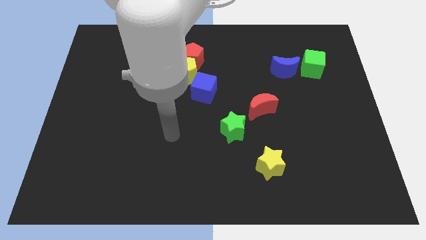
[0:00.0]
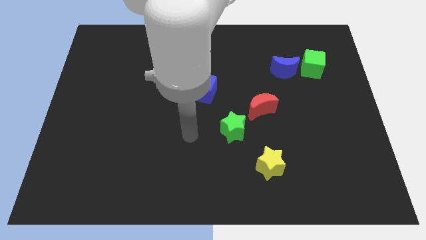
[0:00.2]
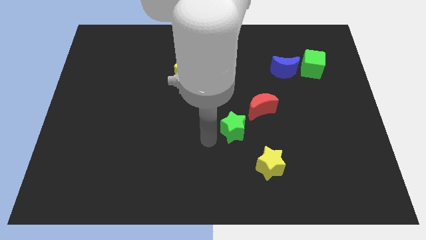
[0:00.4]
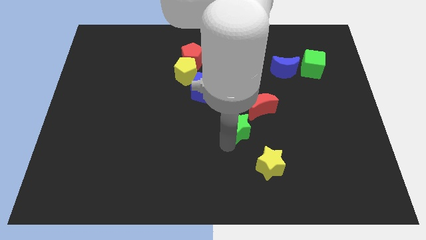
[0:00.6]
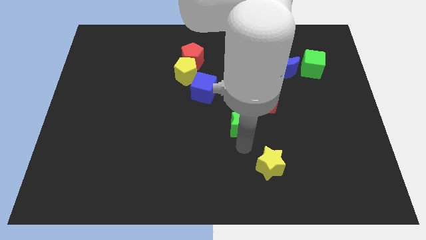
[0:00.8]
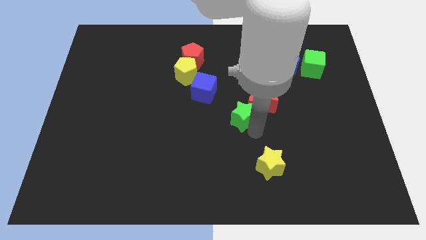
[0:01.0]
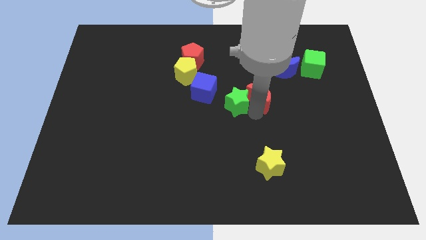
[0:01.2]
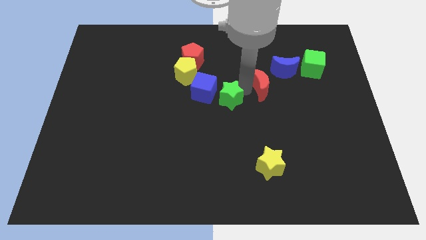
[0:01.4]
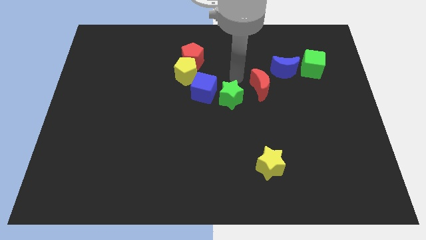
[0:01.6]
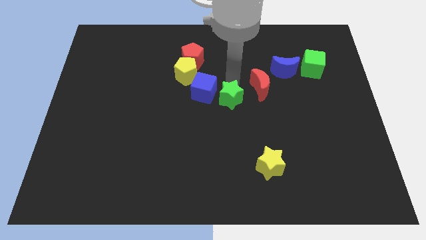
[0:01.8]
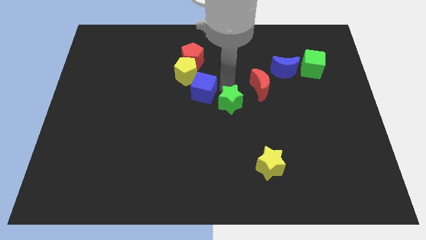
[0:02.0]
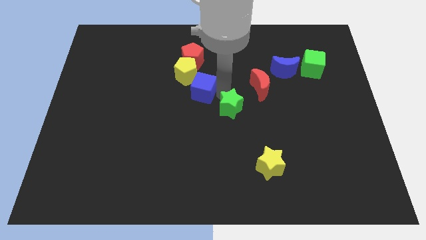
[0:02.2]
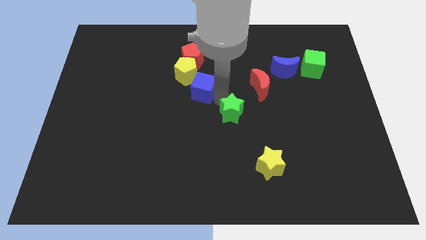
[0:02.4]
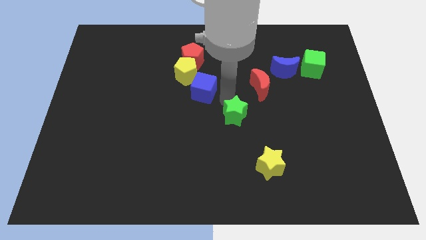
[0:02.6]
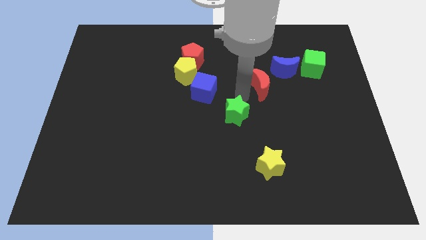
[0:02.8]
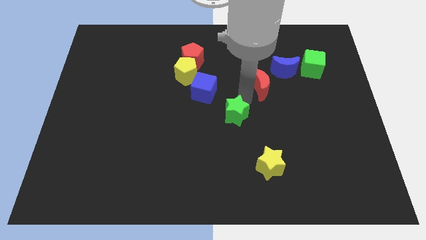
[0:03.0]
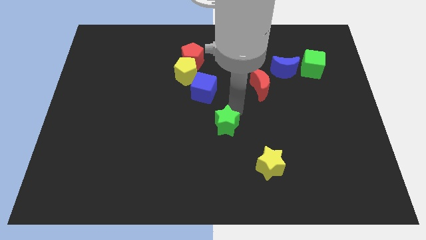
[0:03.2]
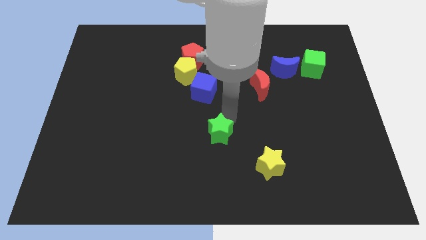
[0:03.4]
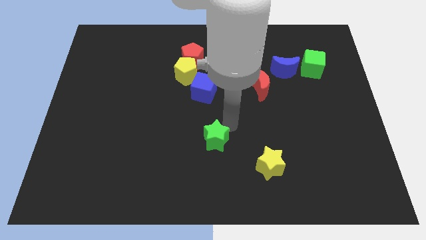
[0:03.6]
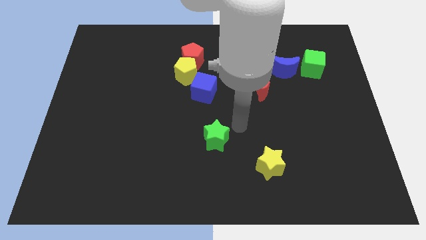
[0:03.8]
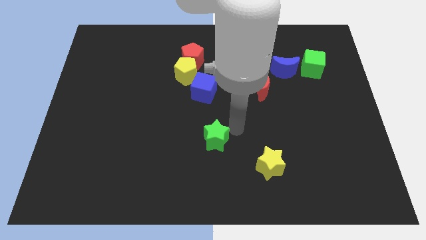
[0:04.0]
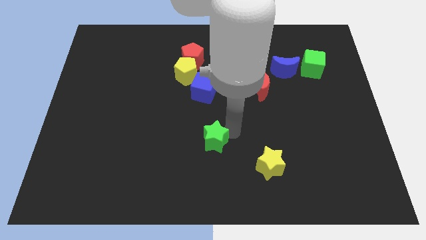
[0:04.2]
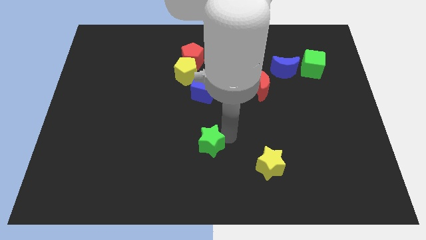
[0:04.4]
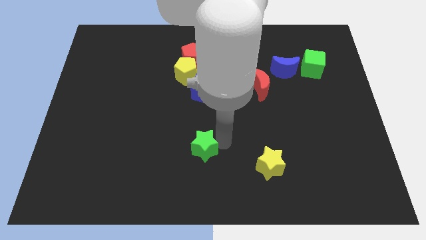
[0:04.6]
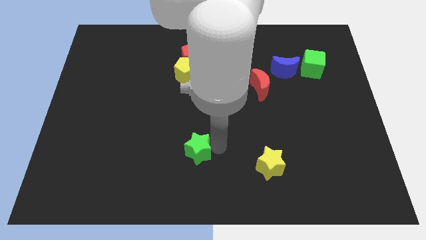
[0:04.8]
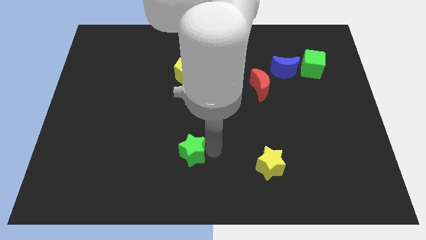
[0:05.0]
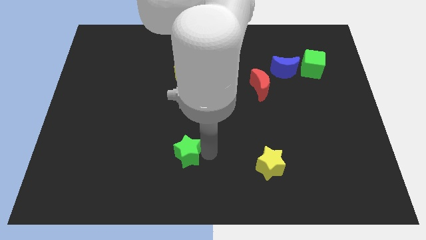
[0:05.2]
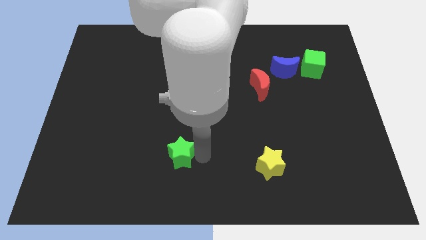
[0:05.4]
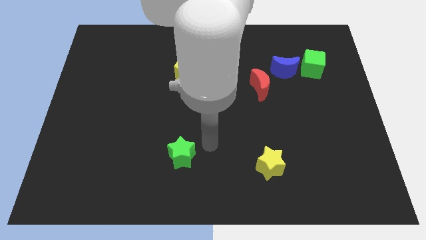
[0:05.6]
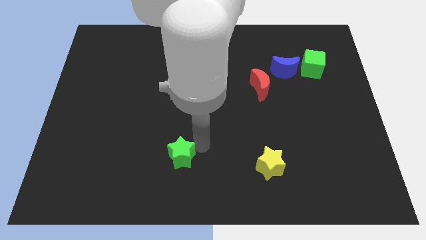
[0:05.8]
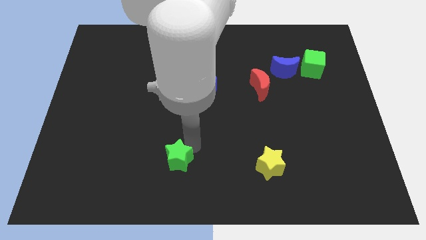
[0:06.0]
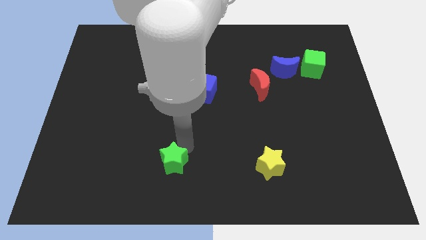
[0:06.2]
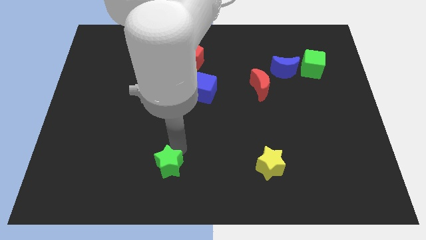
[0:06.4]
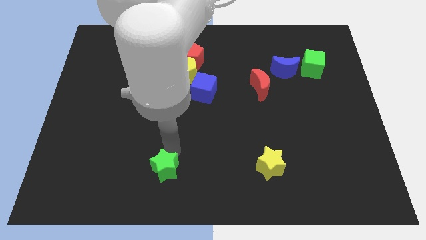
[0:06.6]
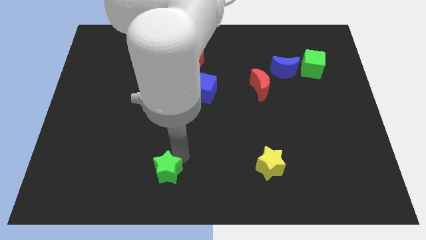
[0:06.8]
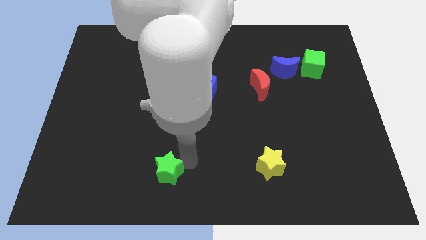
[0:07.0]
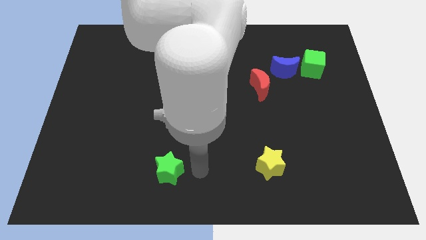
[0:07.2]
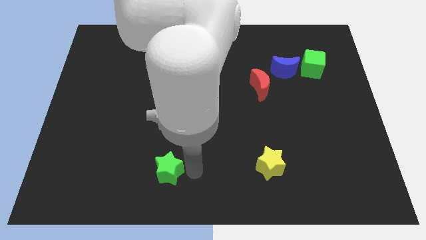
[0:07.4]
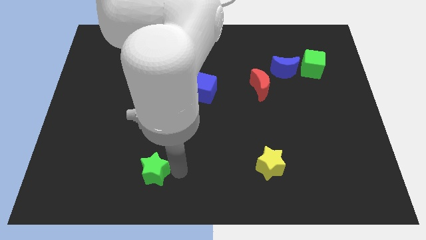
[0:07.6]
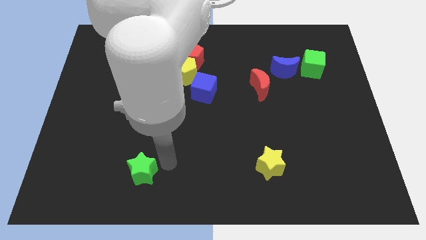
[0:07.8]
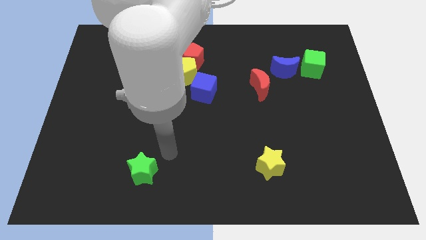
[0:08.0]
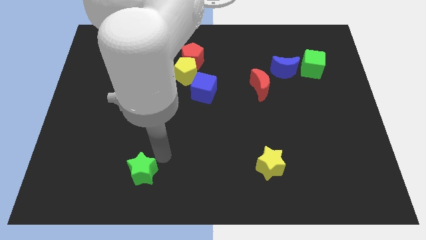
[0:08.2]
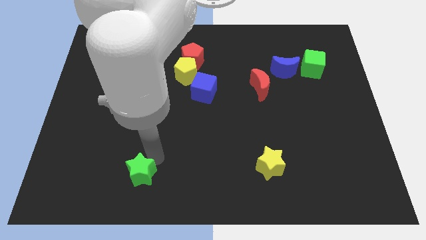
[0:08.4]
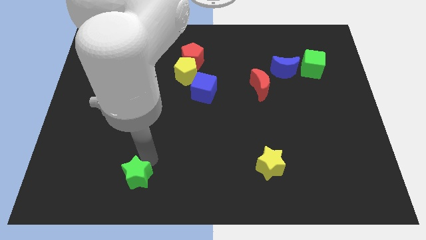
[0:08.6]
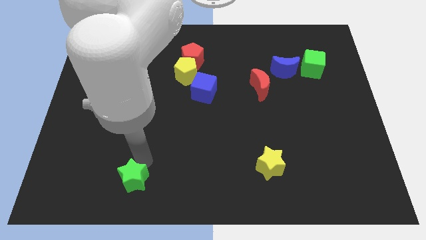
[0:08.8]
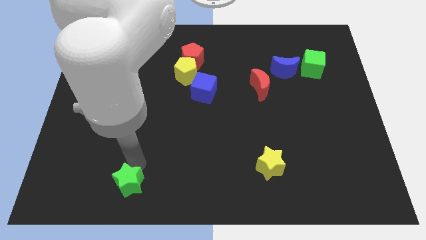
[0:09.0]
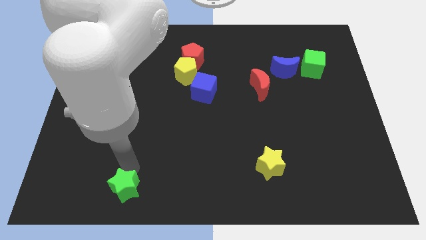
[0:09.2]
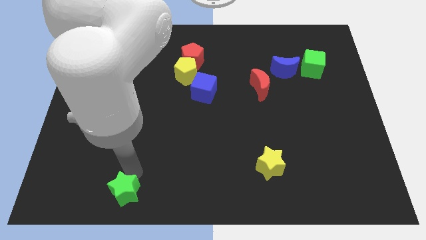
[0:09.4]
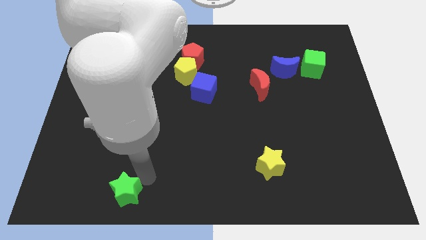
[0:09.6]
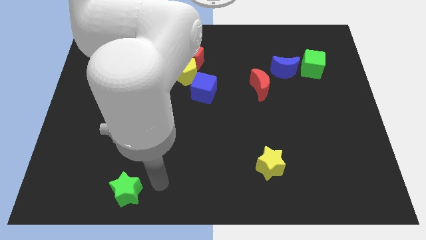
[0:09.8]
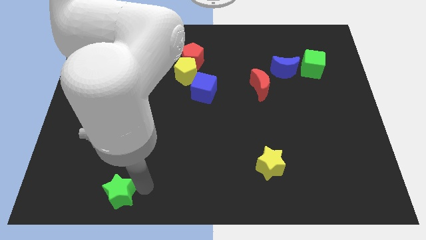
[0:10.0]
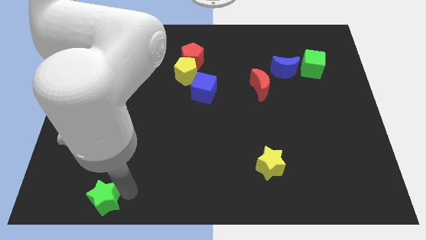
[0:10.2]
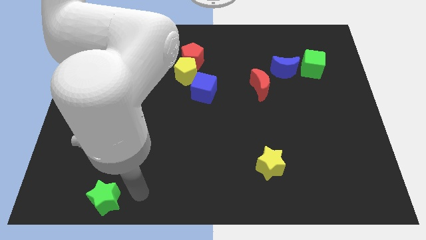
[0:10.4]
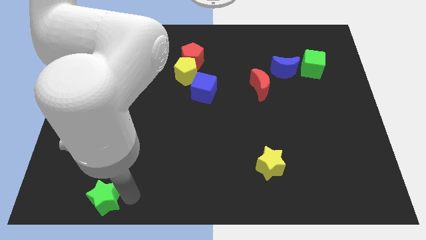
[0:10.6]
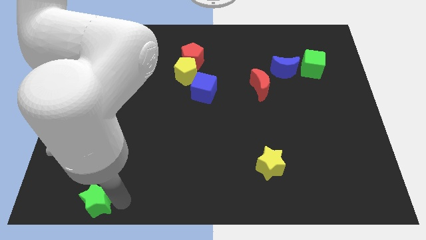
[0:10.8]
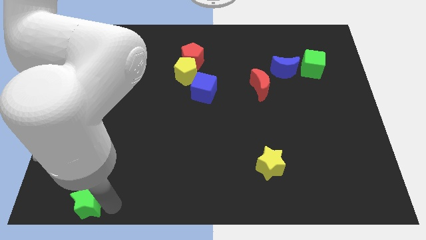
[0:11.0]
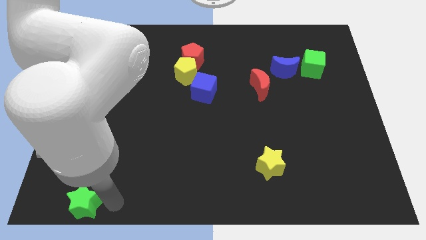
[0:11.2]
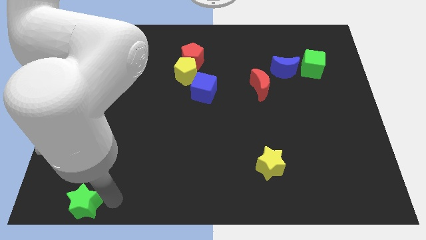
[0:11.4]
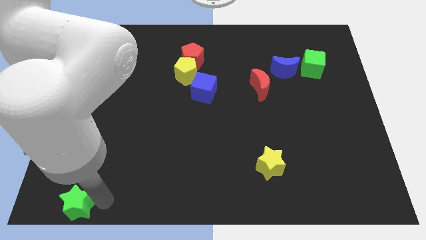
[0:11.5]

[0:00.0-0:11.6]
move the green star to the lower left corner
